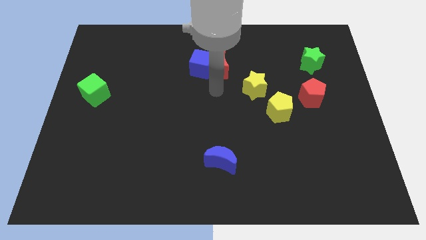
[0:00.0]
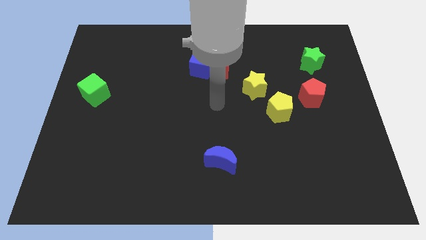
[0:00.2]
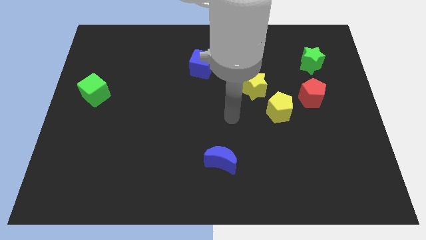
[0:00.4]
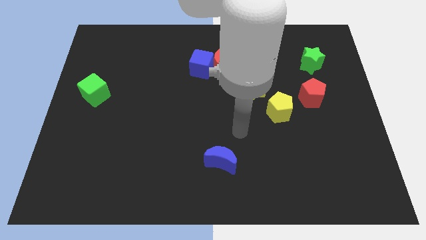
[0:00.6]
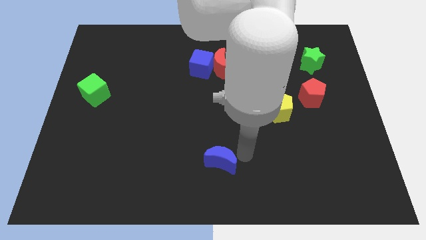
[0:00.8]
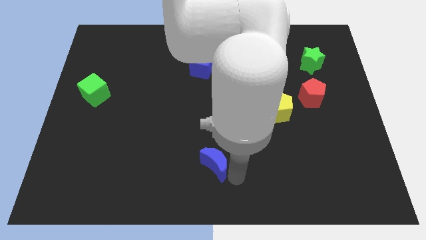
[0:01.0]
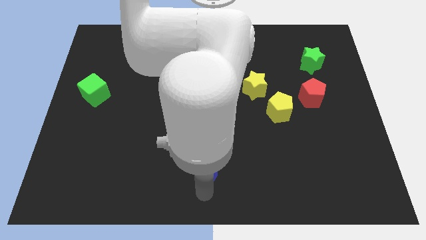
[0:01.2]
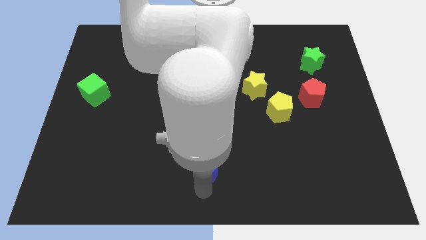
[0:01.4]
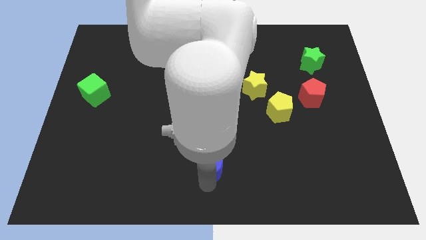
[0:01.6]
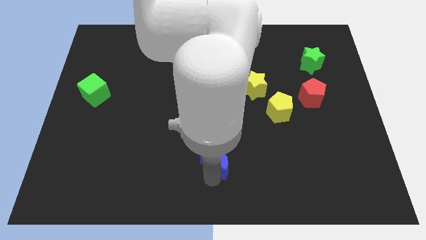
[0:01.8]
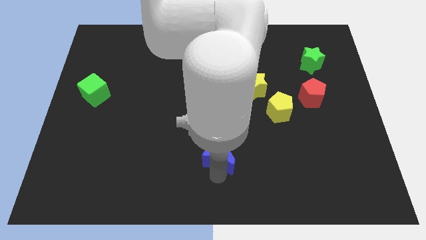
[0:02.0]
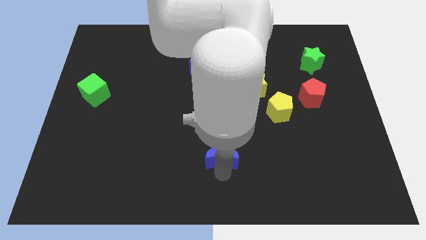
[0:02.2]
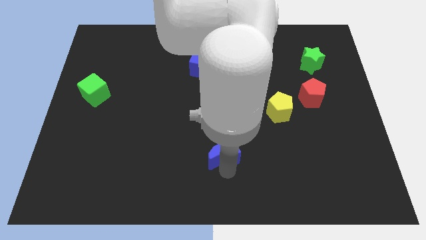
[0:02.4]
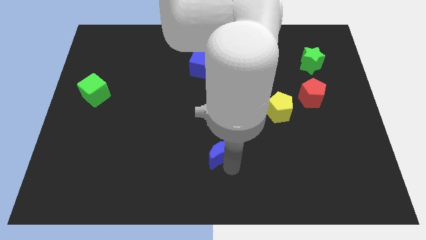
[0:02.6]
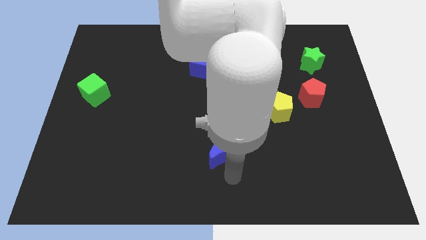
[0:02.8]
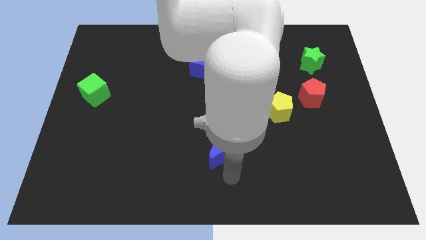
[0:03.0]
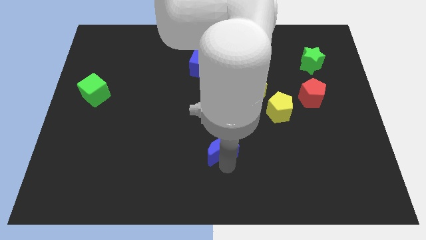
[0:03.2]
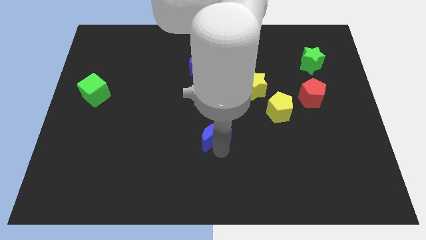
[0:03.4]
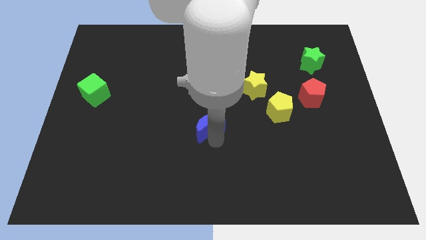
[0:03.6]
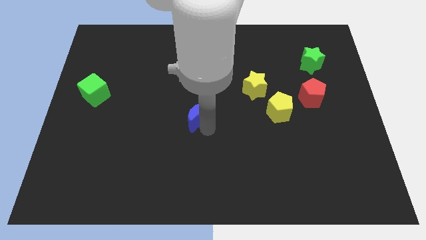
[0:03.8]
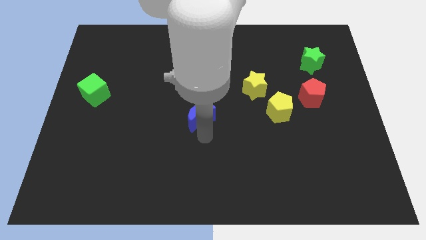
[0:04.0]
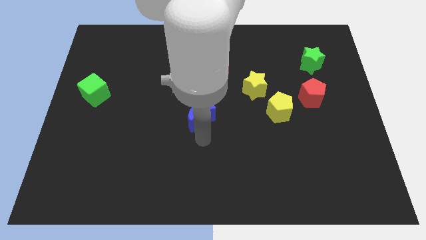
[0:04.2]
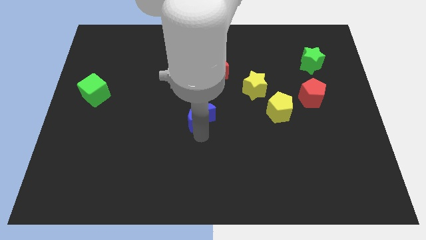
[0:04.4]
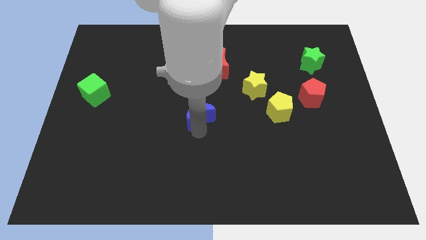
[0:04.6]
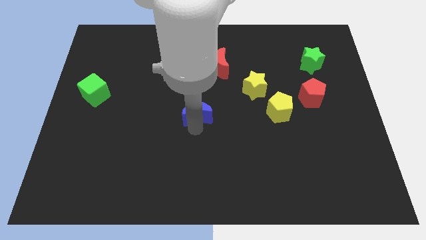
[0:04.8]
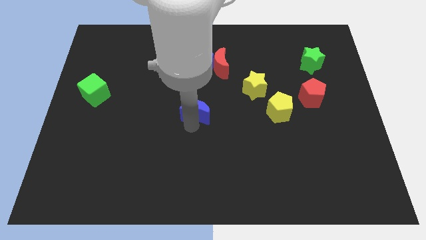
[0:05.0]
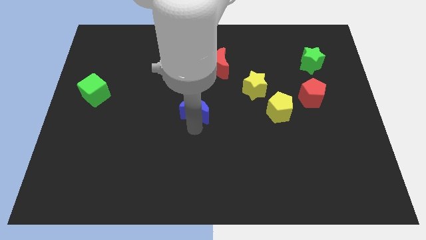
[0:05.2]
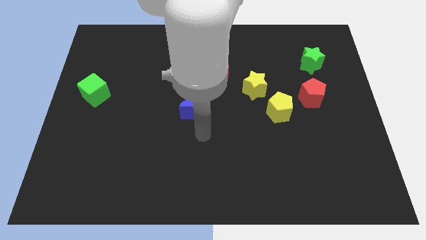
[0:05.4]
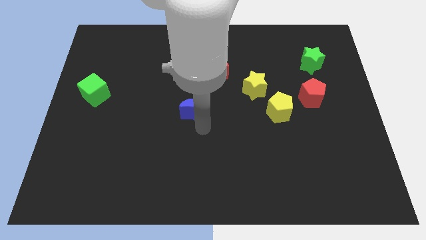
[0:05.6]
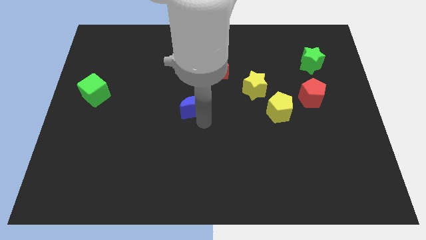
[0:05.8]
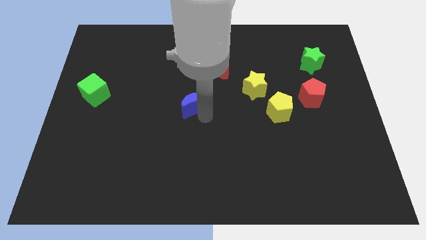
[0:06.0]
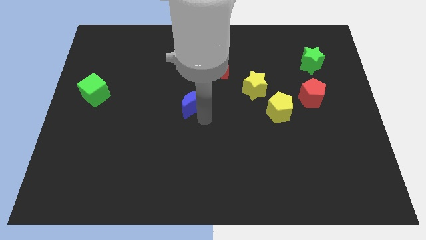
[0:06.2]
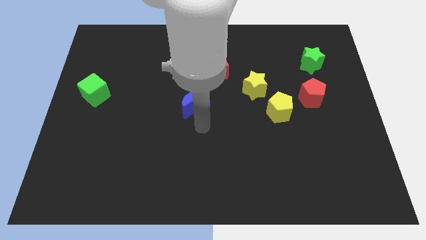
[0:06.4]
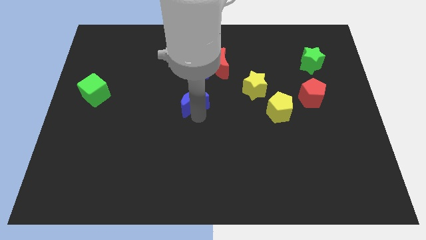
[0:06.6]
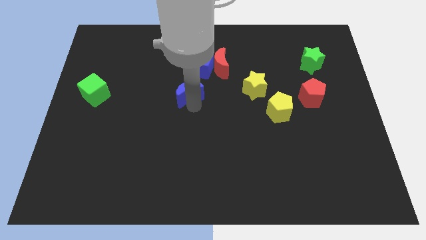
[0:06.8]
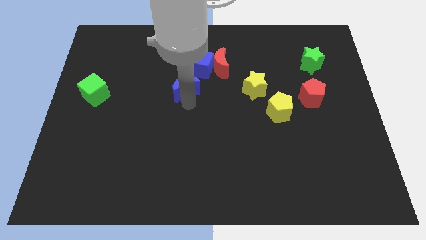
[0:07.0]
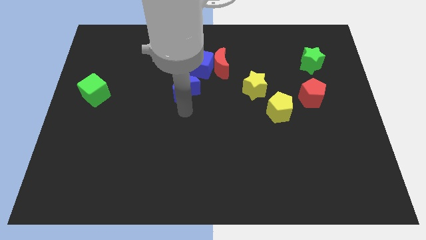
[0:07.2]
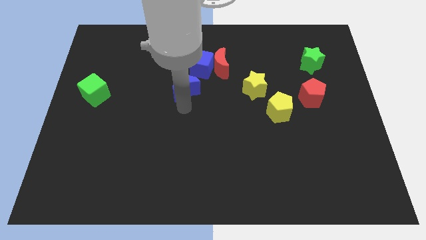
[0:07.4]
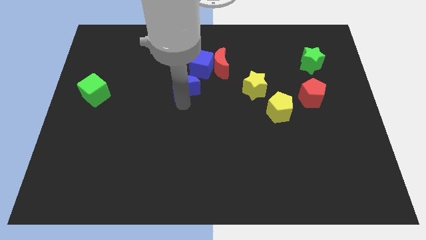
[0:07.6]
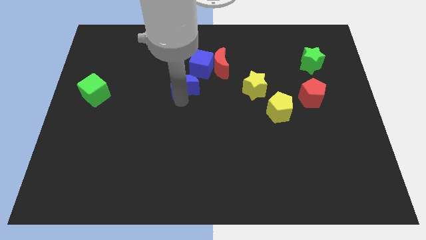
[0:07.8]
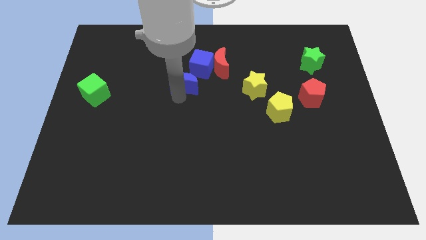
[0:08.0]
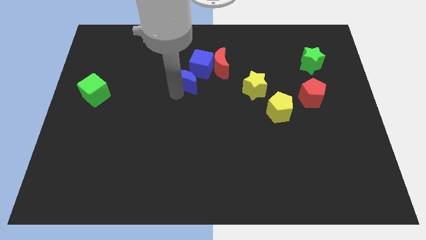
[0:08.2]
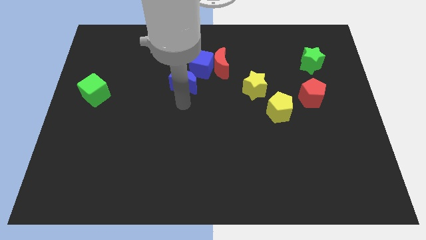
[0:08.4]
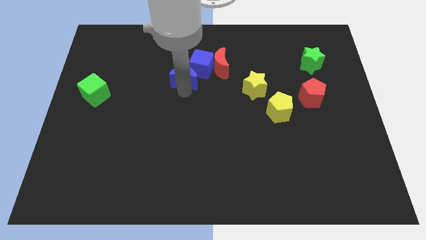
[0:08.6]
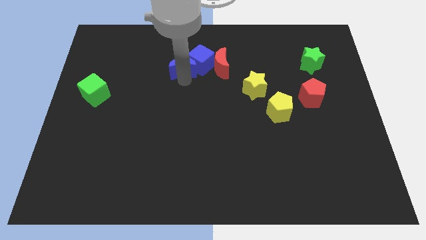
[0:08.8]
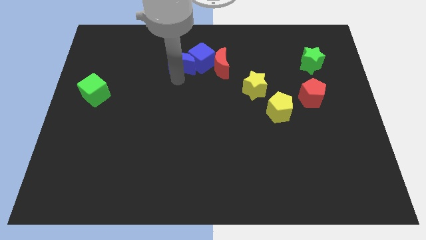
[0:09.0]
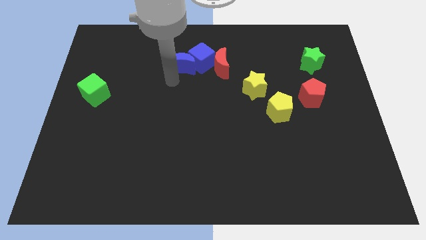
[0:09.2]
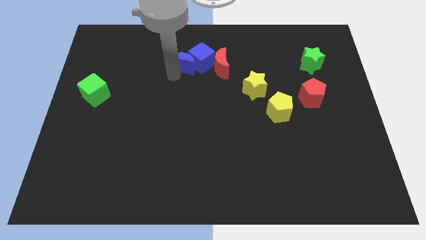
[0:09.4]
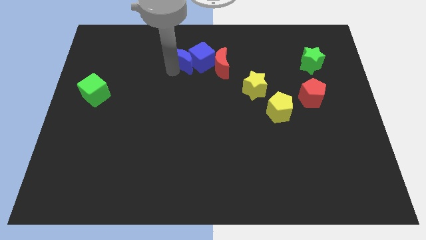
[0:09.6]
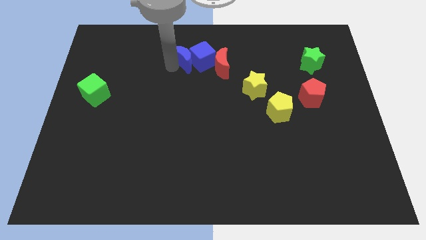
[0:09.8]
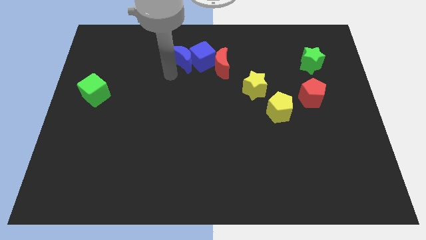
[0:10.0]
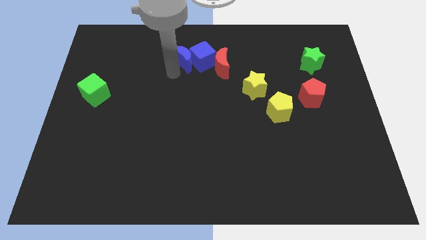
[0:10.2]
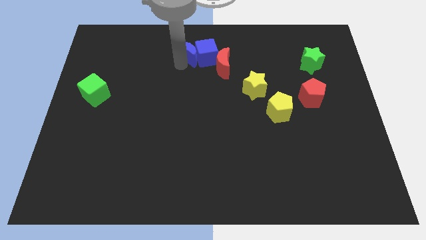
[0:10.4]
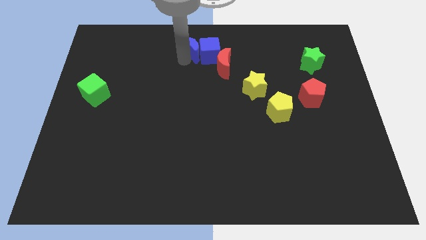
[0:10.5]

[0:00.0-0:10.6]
move the blue moon to the top

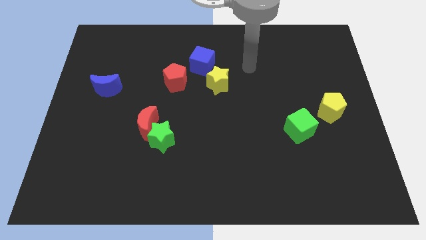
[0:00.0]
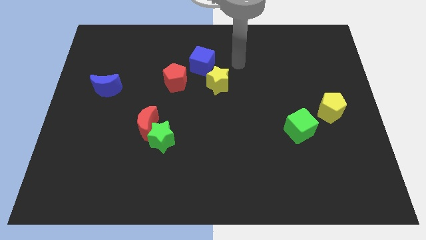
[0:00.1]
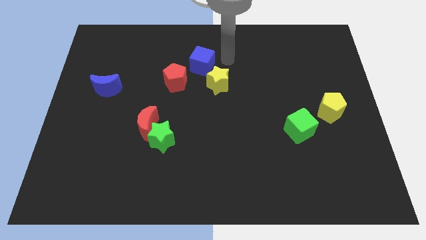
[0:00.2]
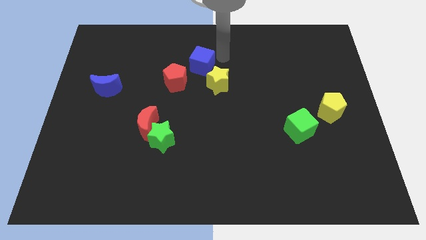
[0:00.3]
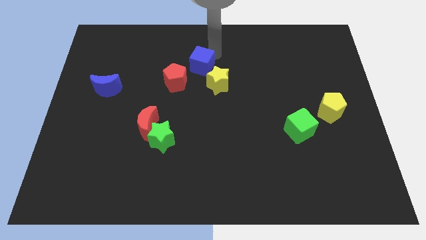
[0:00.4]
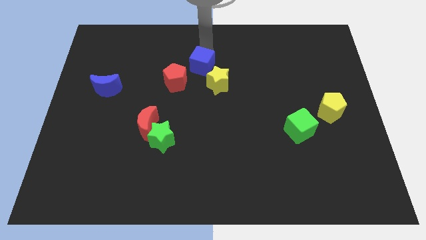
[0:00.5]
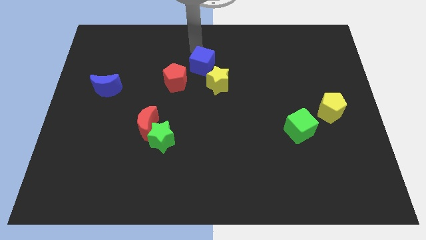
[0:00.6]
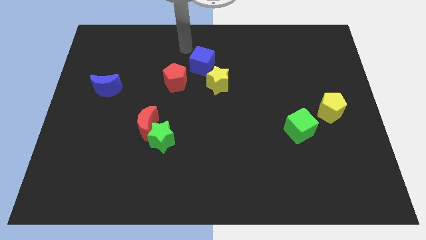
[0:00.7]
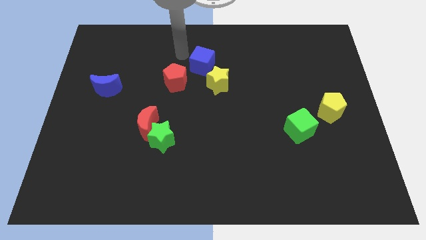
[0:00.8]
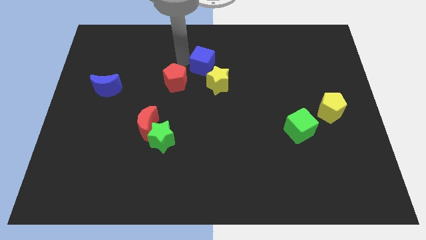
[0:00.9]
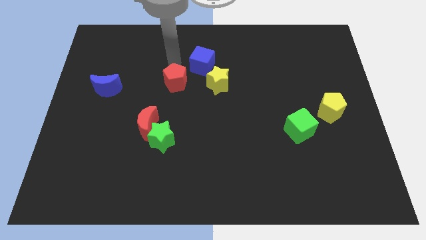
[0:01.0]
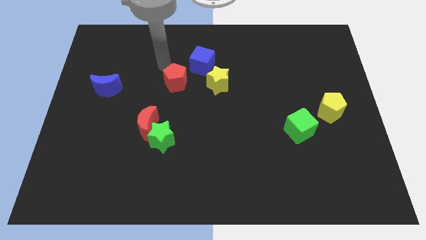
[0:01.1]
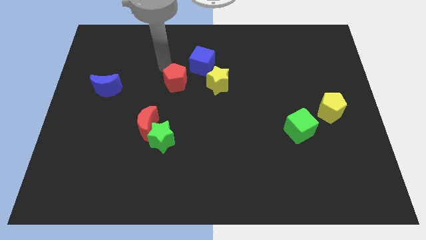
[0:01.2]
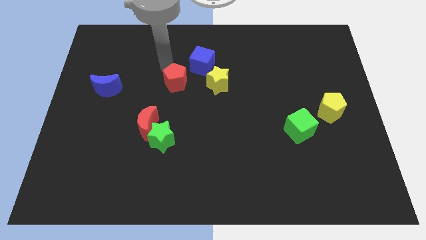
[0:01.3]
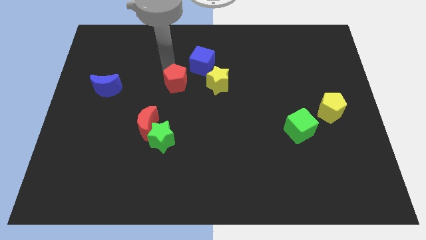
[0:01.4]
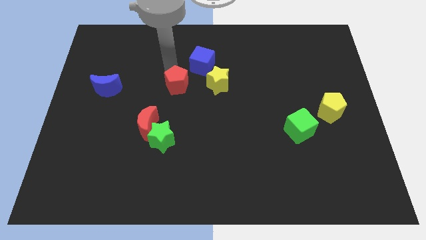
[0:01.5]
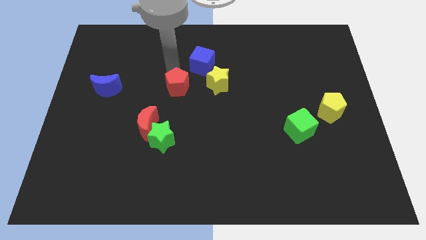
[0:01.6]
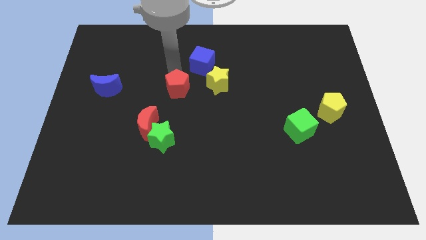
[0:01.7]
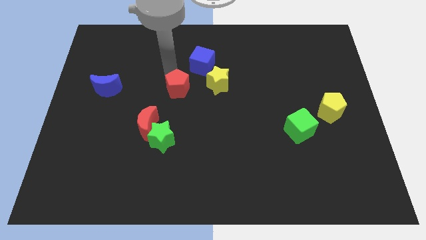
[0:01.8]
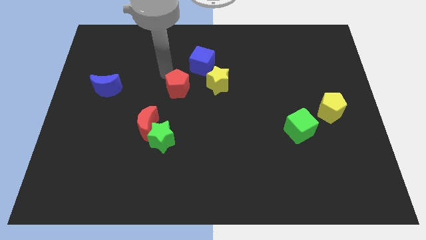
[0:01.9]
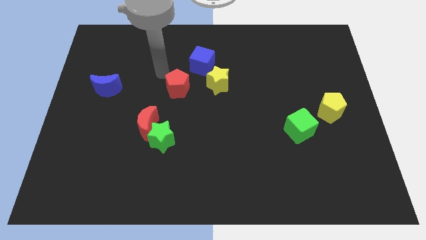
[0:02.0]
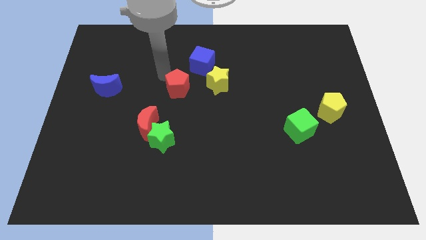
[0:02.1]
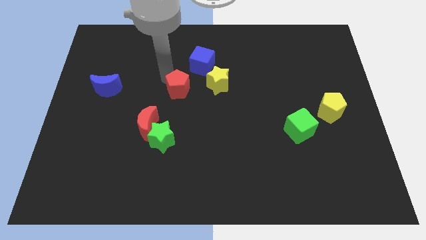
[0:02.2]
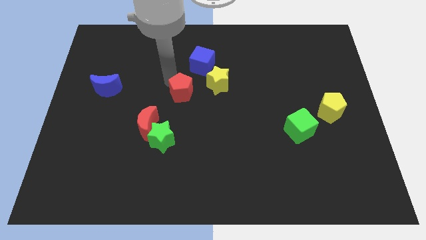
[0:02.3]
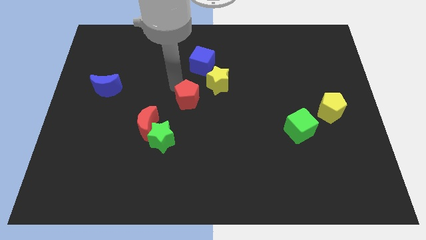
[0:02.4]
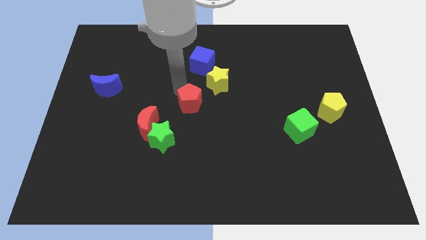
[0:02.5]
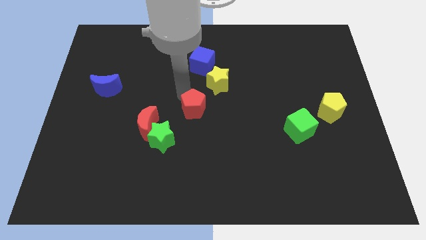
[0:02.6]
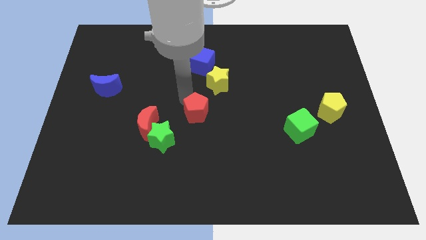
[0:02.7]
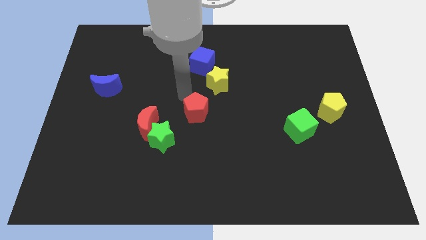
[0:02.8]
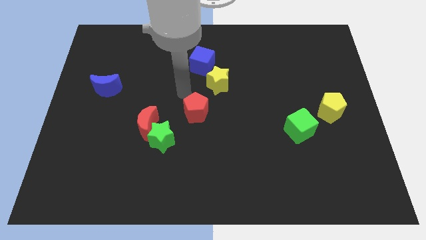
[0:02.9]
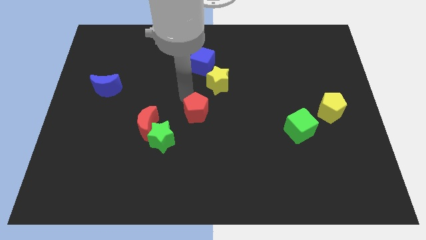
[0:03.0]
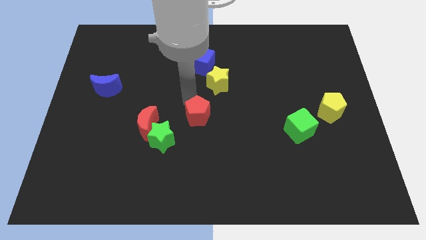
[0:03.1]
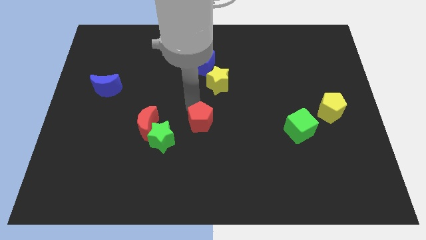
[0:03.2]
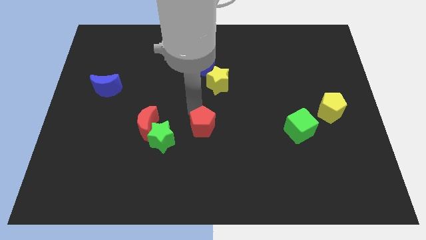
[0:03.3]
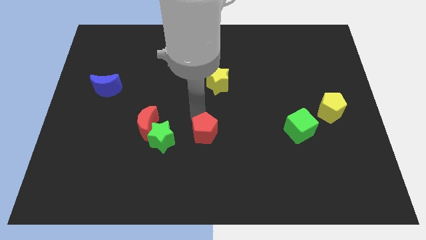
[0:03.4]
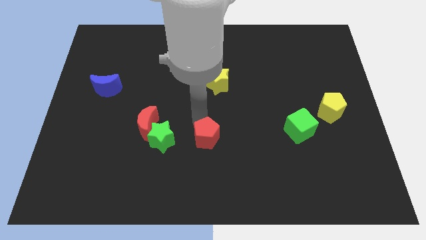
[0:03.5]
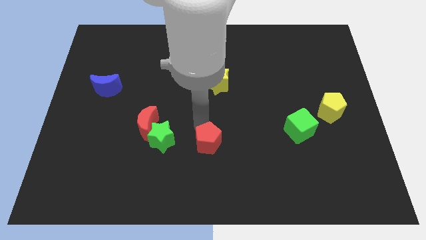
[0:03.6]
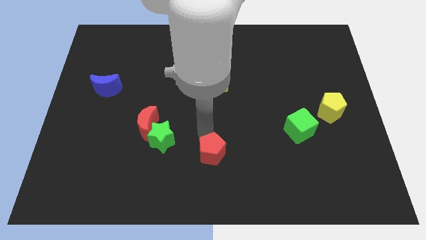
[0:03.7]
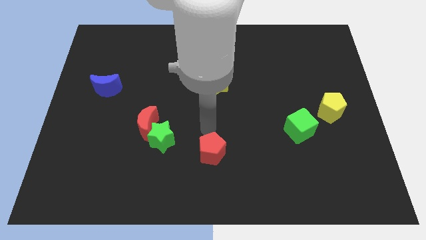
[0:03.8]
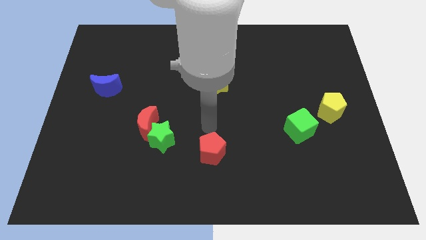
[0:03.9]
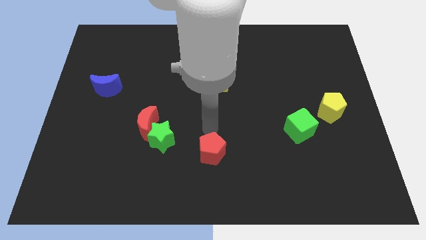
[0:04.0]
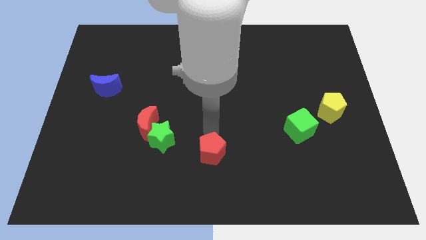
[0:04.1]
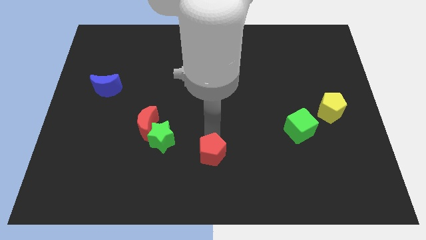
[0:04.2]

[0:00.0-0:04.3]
push the red pentagon to the bottom
